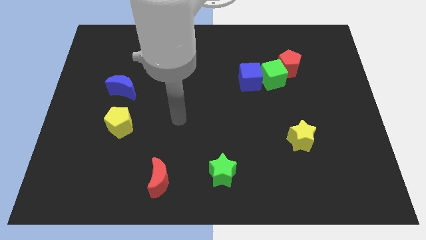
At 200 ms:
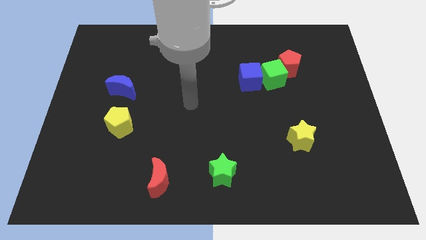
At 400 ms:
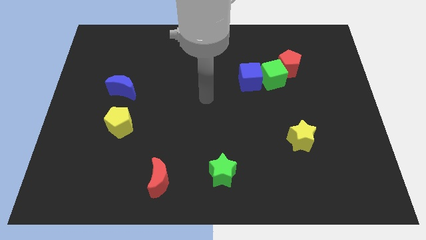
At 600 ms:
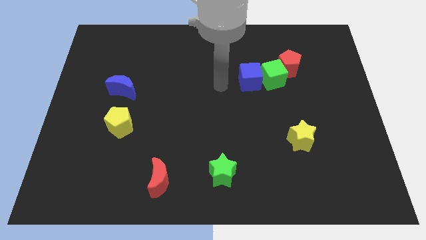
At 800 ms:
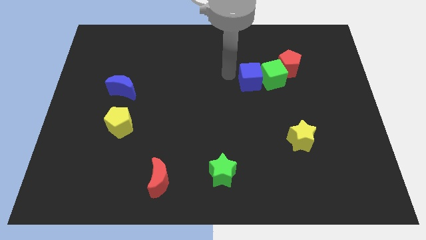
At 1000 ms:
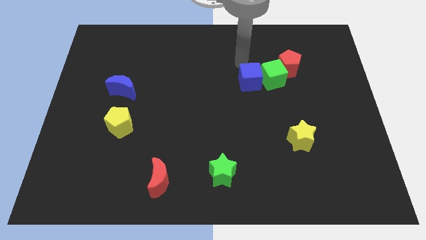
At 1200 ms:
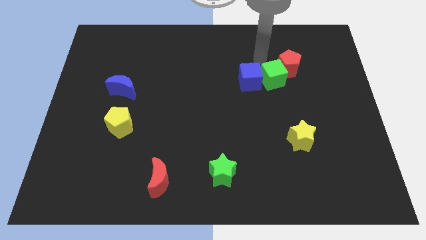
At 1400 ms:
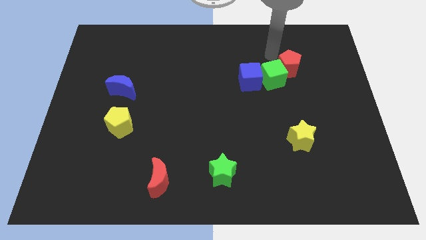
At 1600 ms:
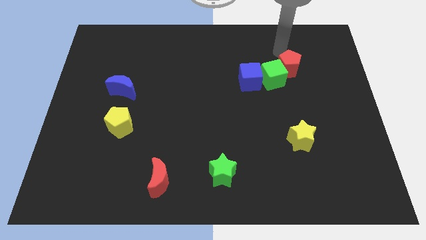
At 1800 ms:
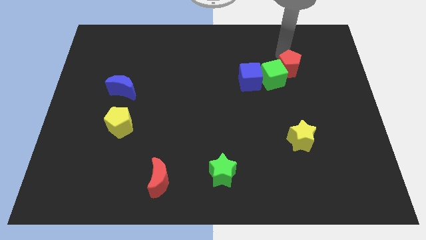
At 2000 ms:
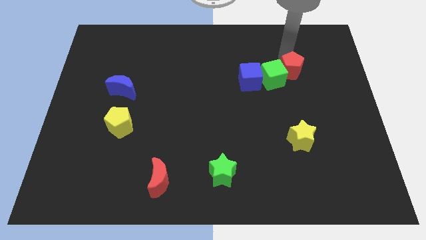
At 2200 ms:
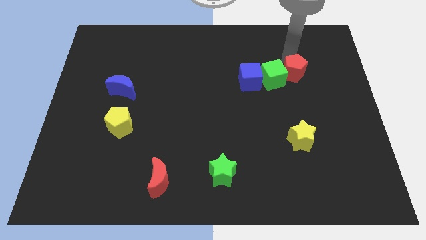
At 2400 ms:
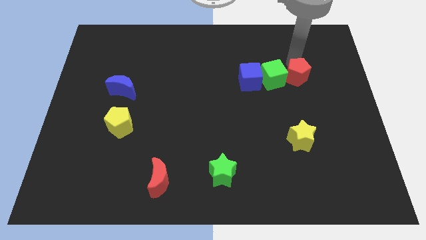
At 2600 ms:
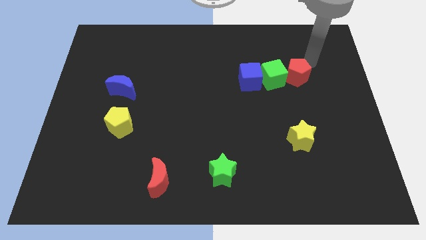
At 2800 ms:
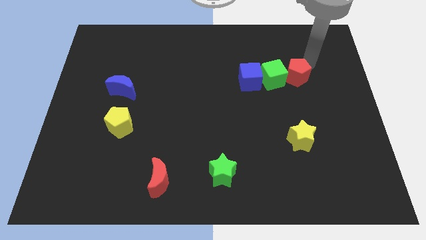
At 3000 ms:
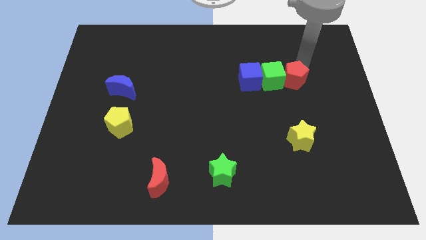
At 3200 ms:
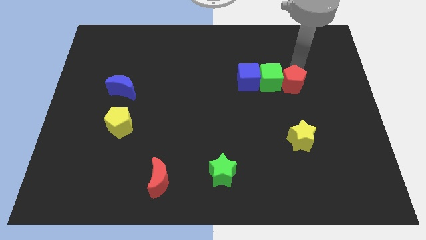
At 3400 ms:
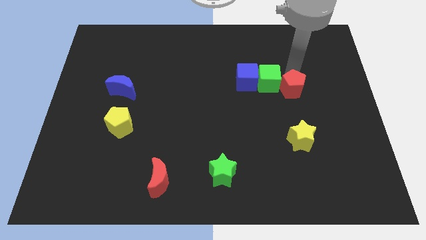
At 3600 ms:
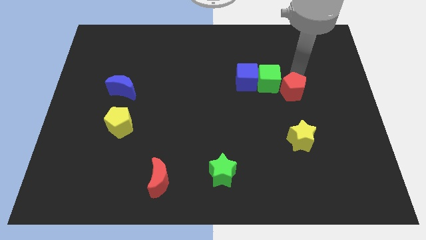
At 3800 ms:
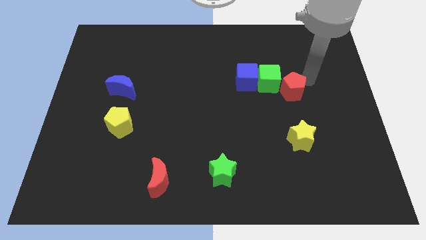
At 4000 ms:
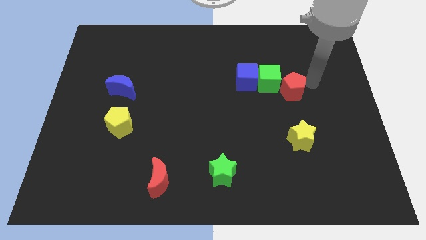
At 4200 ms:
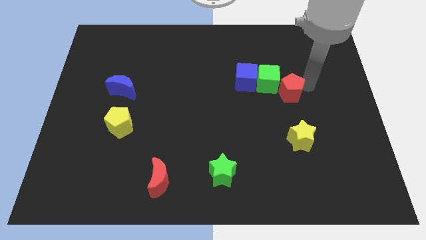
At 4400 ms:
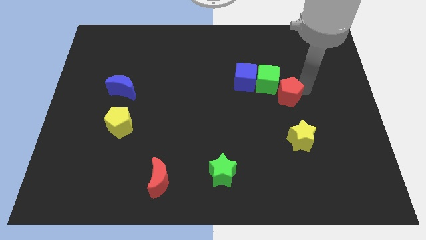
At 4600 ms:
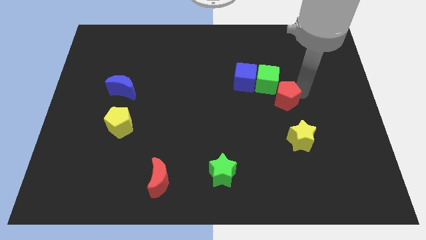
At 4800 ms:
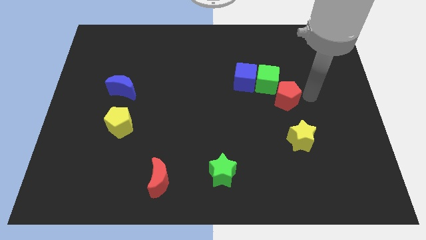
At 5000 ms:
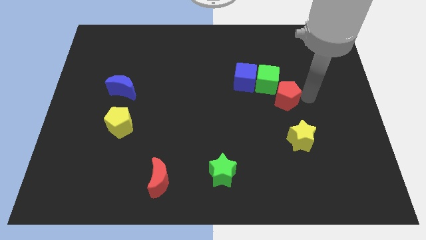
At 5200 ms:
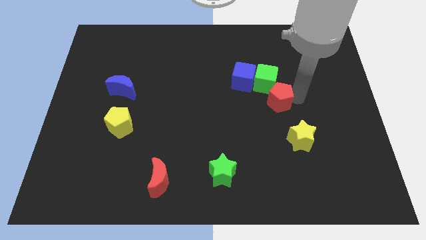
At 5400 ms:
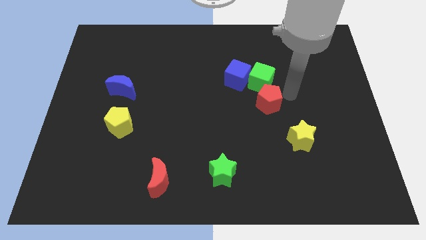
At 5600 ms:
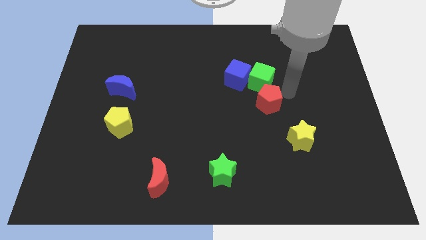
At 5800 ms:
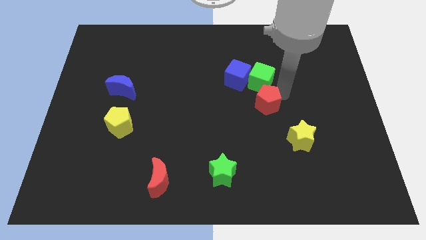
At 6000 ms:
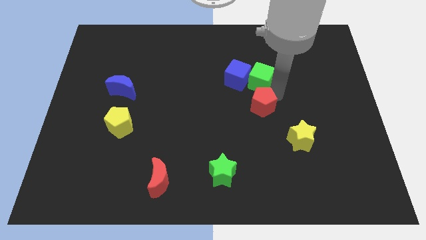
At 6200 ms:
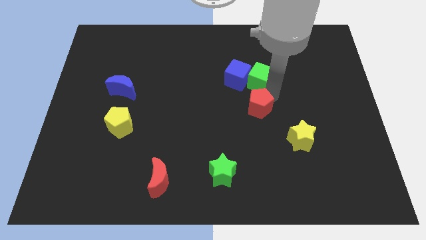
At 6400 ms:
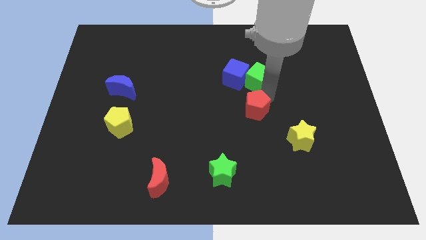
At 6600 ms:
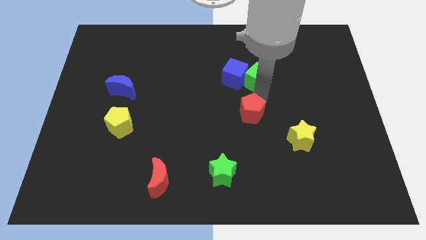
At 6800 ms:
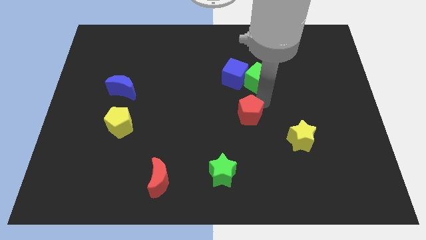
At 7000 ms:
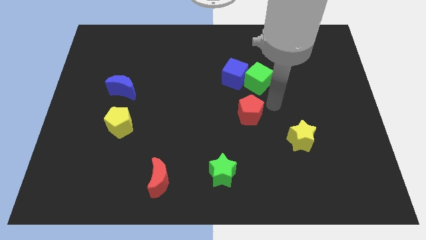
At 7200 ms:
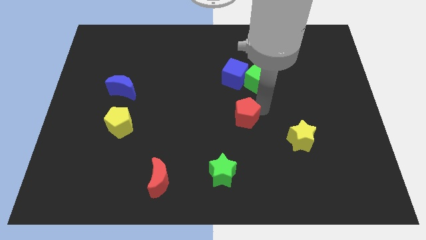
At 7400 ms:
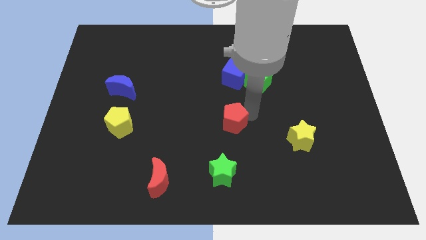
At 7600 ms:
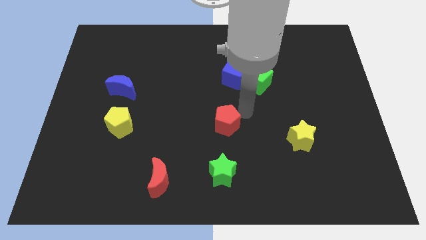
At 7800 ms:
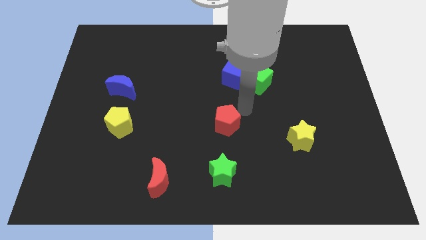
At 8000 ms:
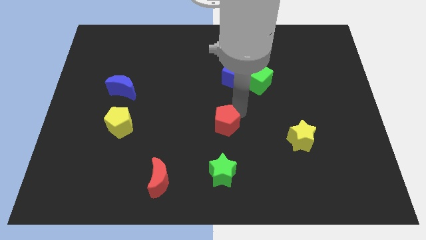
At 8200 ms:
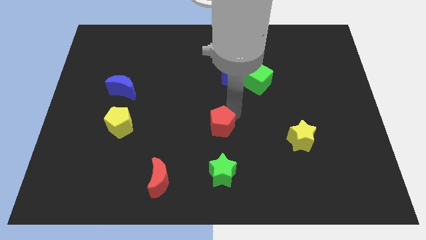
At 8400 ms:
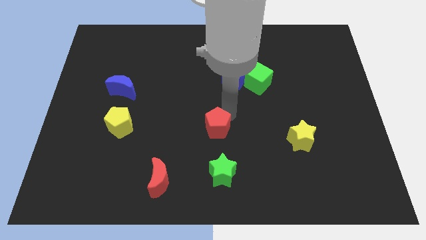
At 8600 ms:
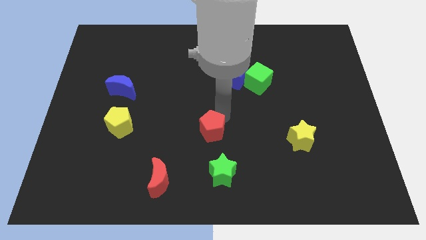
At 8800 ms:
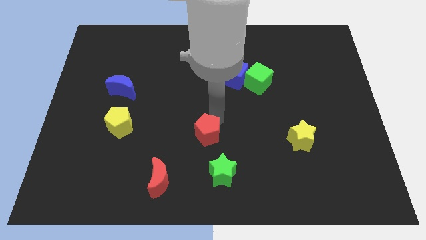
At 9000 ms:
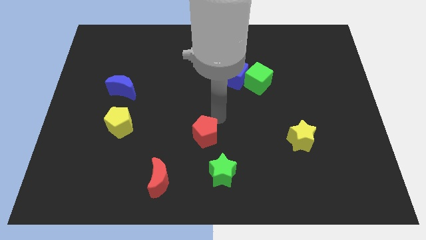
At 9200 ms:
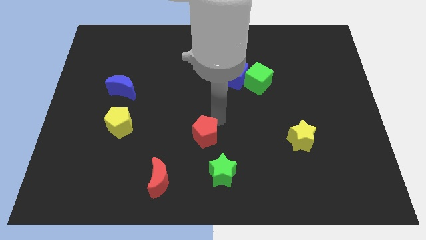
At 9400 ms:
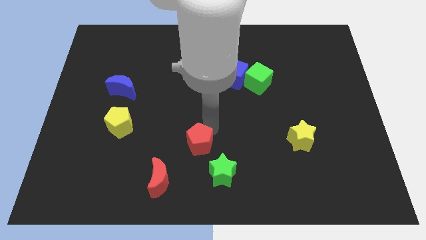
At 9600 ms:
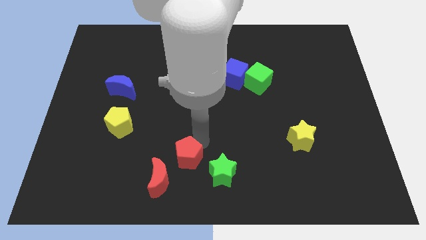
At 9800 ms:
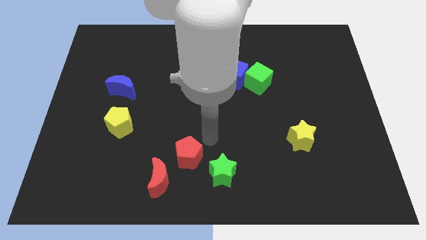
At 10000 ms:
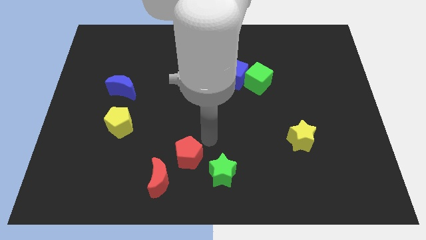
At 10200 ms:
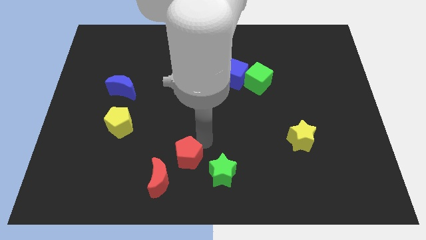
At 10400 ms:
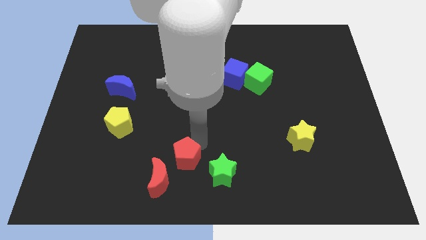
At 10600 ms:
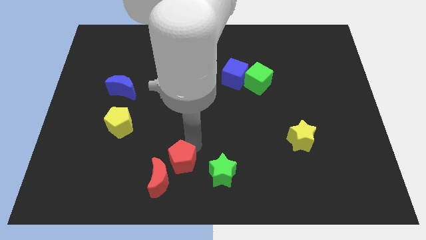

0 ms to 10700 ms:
slide the red pentagon to the red moon

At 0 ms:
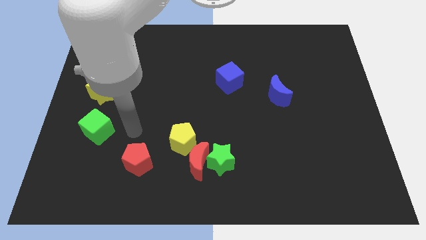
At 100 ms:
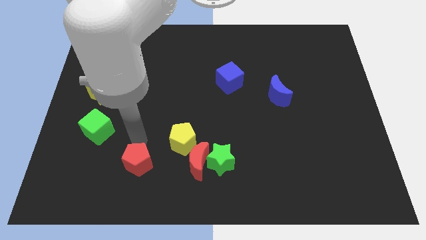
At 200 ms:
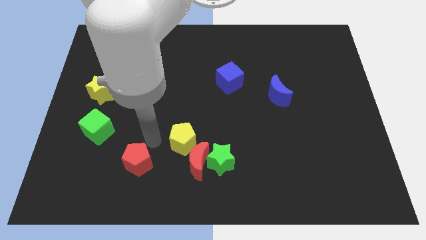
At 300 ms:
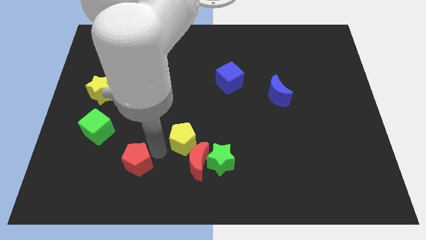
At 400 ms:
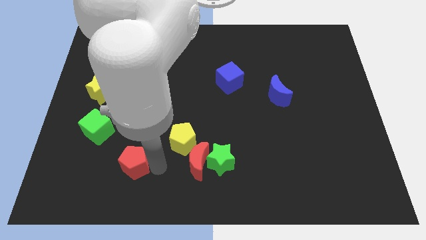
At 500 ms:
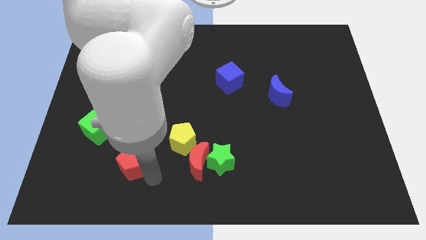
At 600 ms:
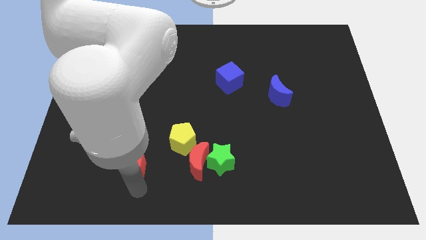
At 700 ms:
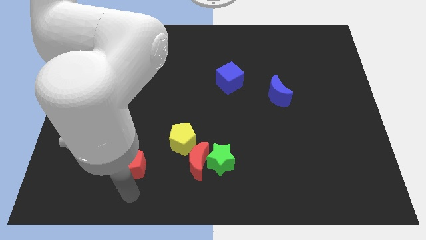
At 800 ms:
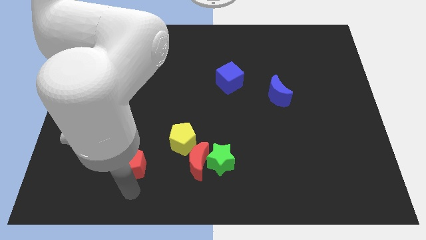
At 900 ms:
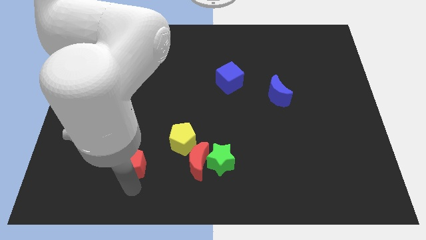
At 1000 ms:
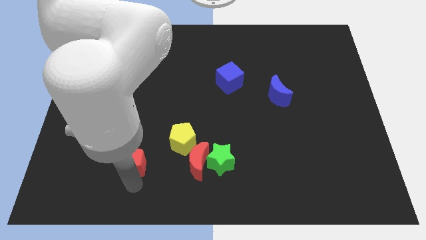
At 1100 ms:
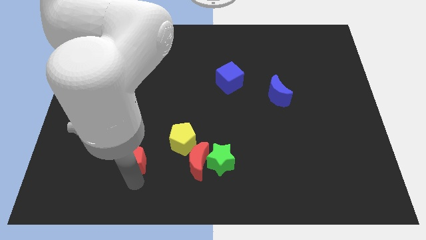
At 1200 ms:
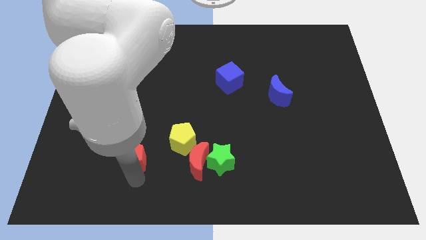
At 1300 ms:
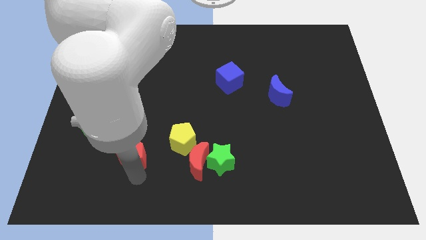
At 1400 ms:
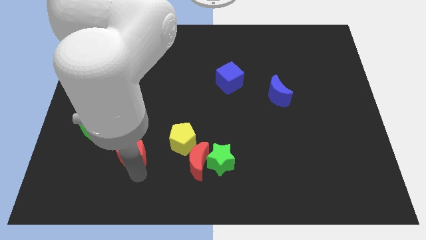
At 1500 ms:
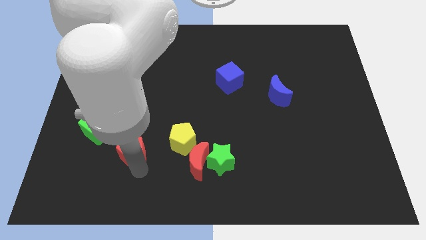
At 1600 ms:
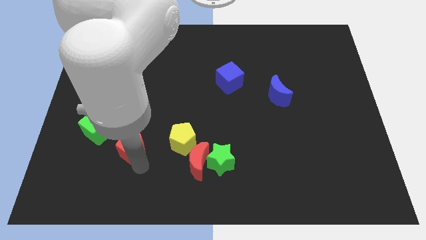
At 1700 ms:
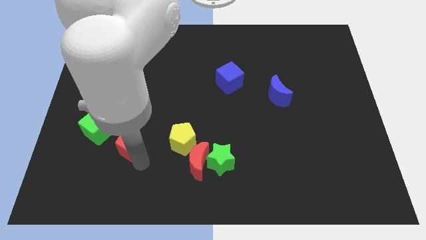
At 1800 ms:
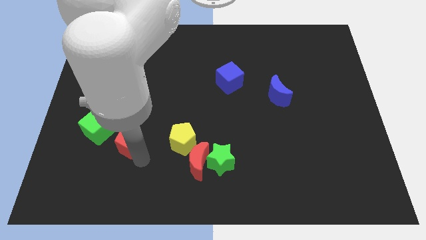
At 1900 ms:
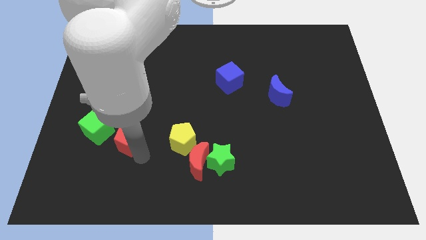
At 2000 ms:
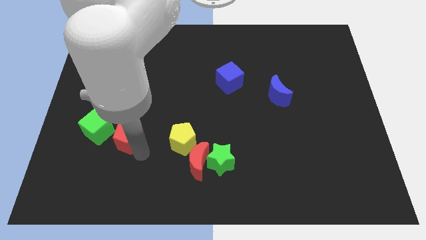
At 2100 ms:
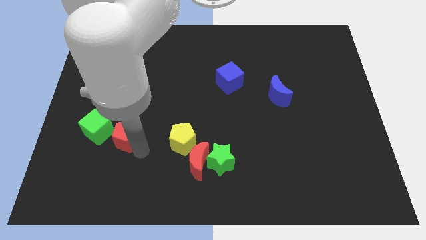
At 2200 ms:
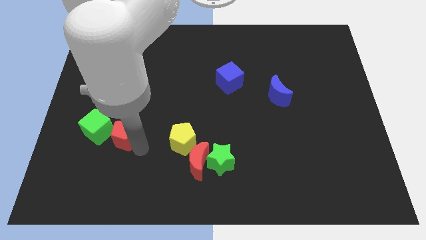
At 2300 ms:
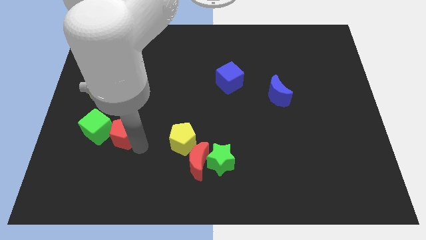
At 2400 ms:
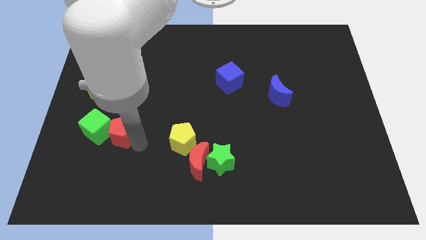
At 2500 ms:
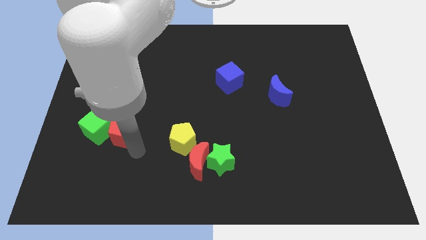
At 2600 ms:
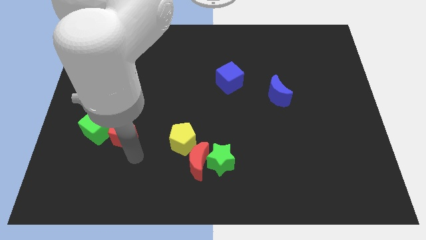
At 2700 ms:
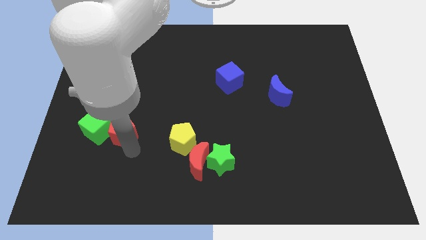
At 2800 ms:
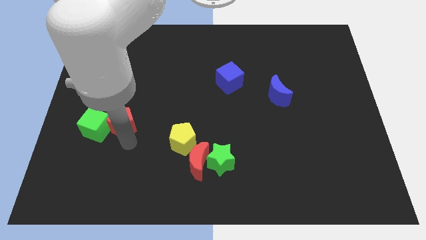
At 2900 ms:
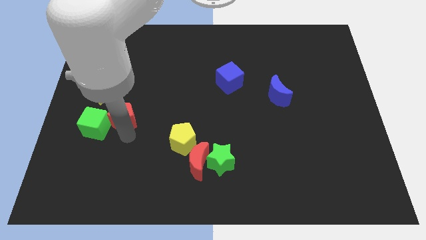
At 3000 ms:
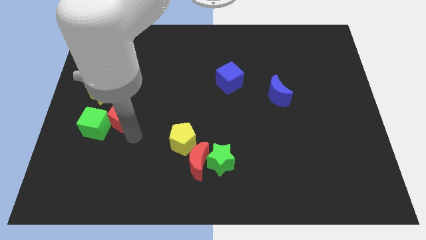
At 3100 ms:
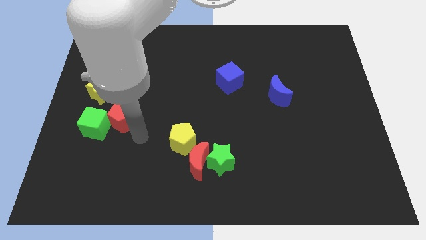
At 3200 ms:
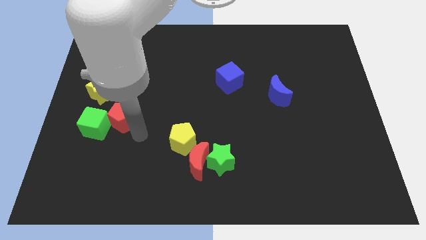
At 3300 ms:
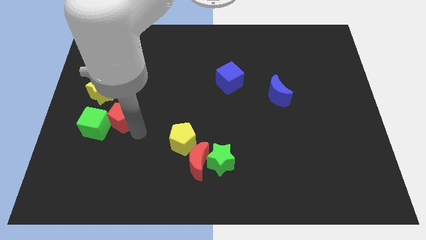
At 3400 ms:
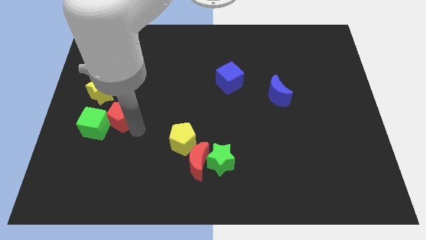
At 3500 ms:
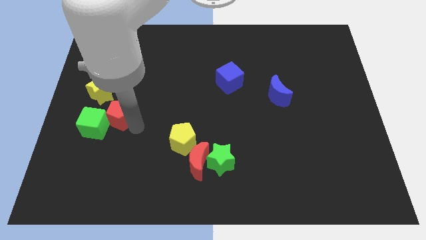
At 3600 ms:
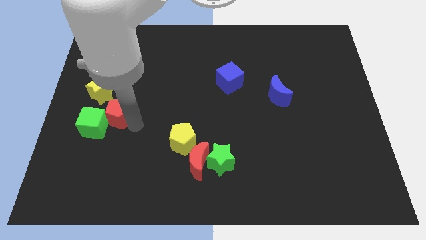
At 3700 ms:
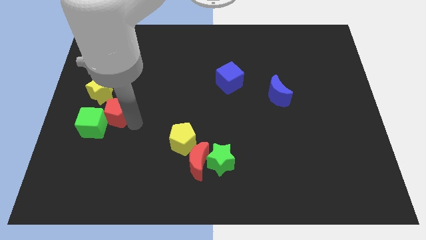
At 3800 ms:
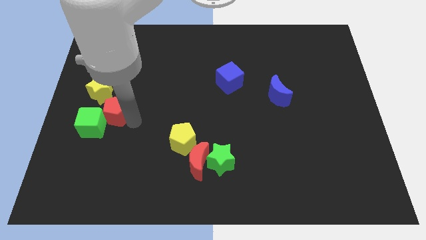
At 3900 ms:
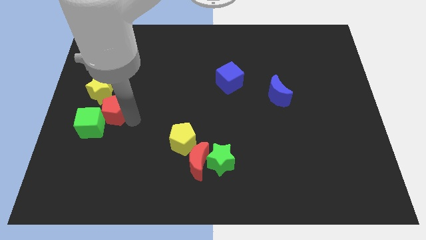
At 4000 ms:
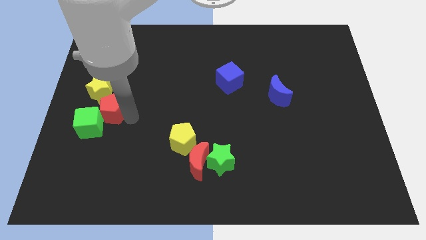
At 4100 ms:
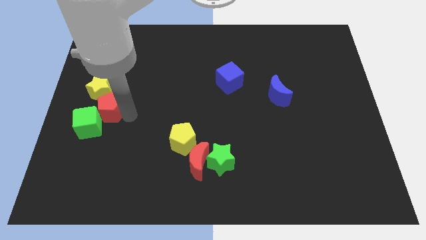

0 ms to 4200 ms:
move the red pentagon towards the yellow star
